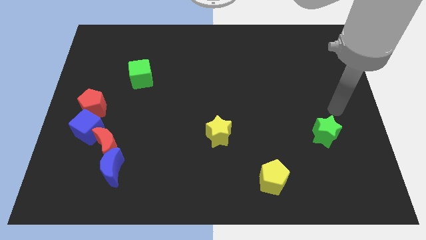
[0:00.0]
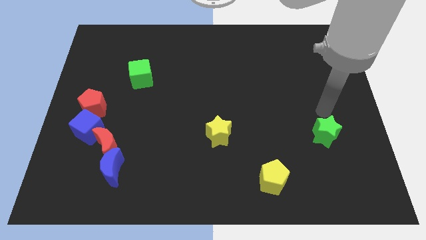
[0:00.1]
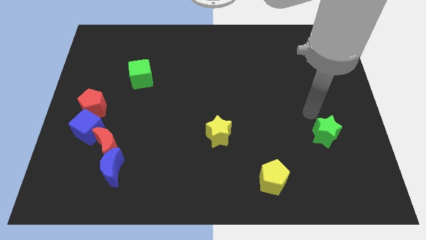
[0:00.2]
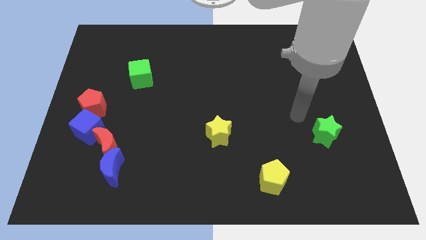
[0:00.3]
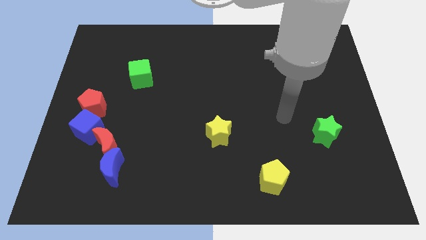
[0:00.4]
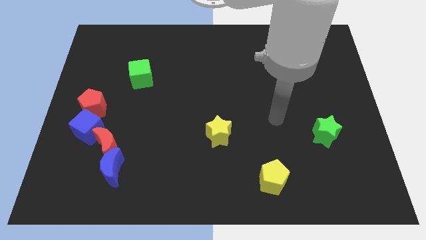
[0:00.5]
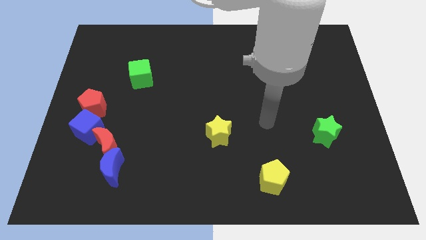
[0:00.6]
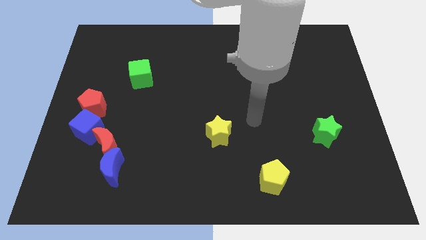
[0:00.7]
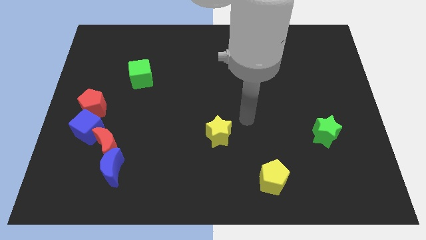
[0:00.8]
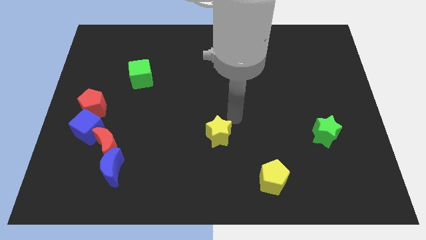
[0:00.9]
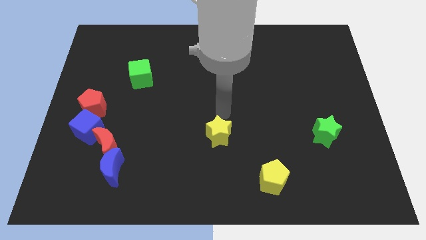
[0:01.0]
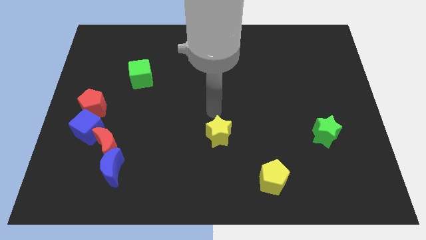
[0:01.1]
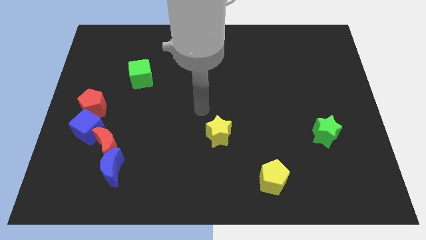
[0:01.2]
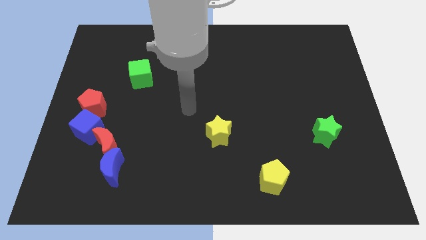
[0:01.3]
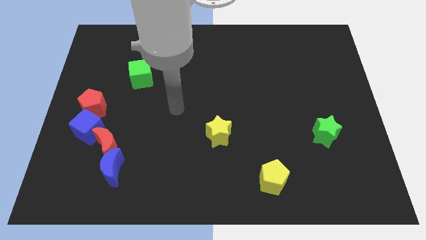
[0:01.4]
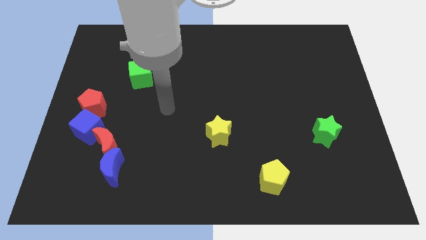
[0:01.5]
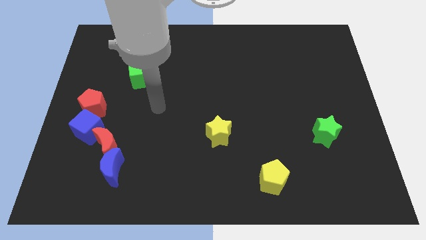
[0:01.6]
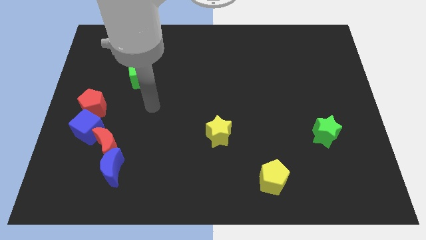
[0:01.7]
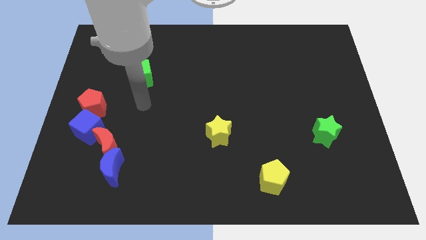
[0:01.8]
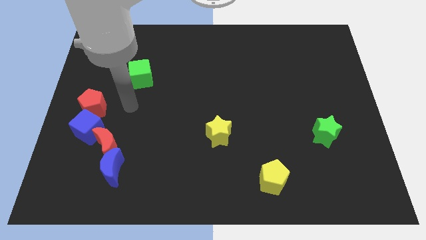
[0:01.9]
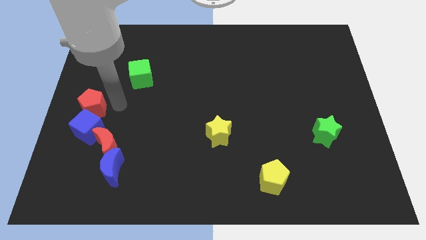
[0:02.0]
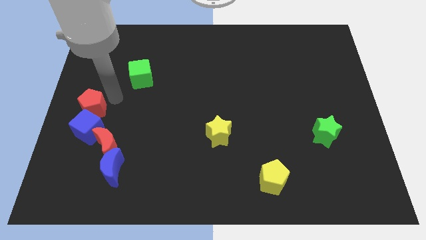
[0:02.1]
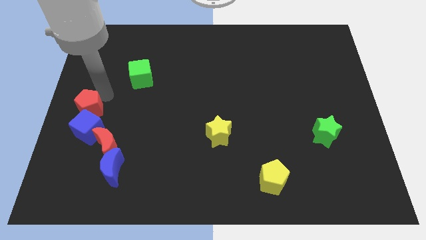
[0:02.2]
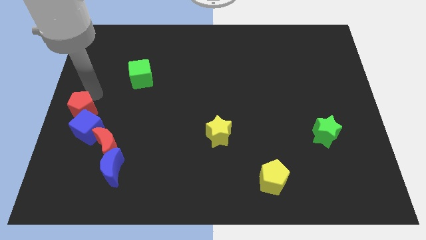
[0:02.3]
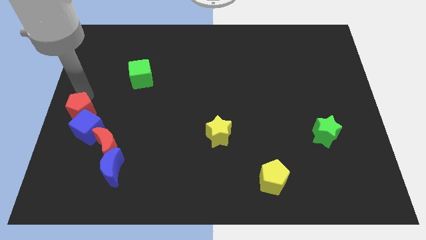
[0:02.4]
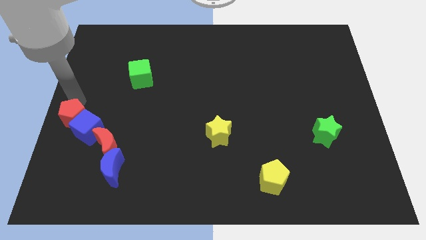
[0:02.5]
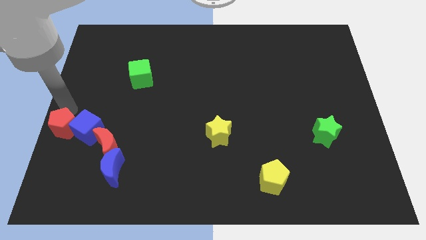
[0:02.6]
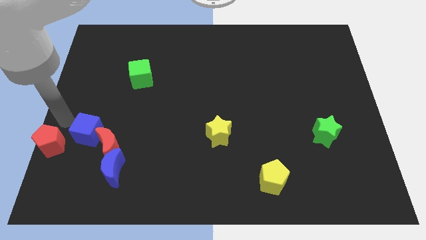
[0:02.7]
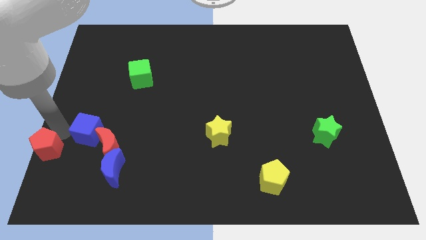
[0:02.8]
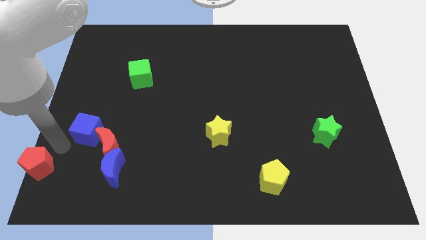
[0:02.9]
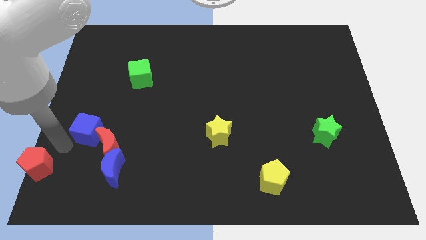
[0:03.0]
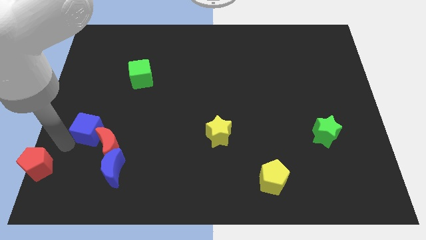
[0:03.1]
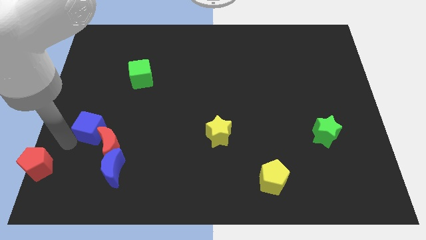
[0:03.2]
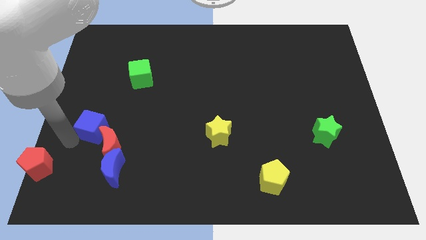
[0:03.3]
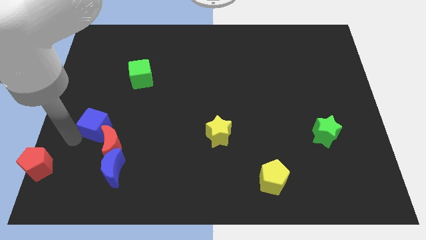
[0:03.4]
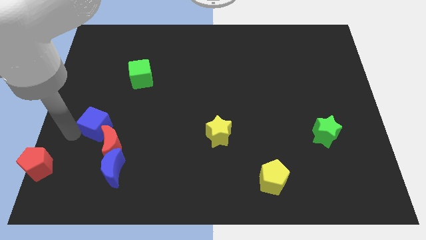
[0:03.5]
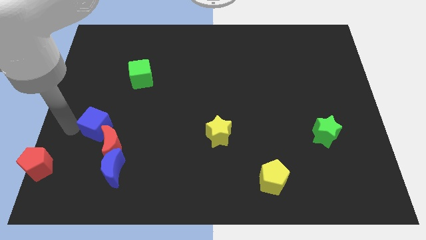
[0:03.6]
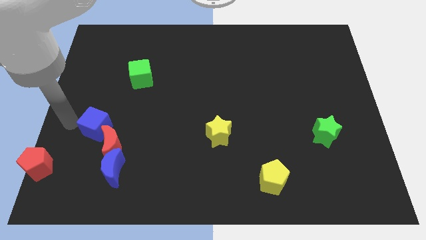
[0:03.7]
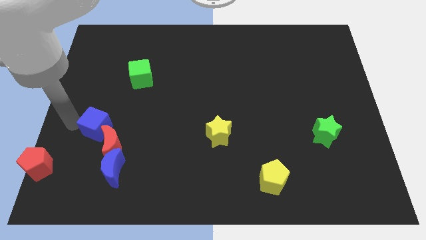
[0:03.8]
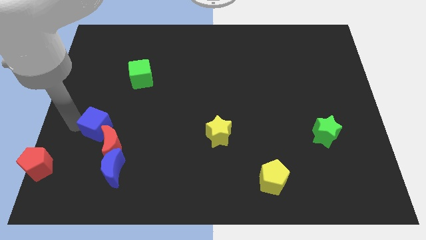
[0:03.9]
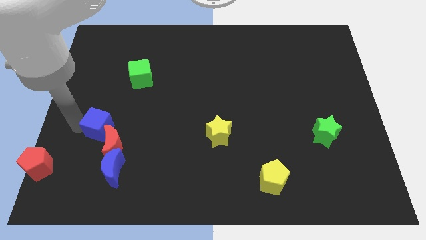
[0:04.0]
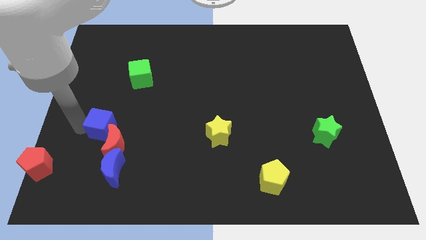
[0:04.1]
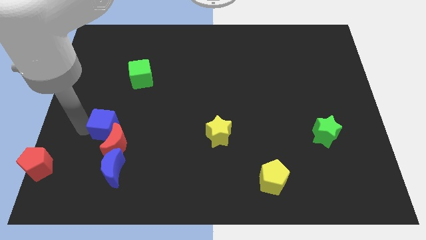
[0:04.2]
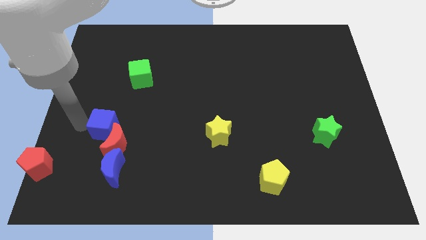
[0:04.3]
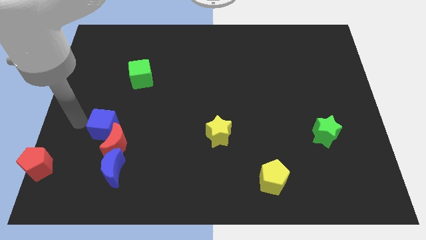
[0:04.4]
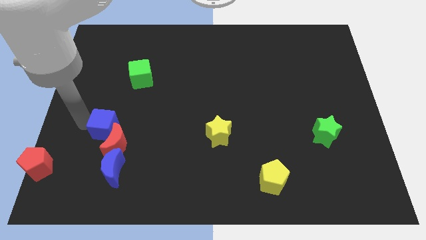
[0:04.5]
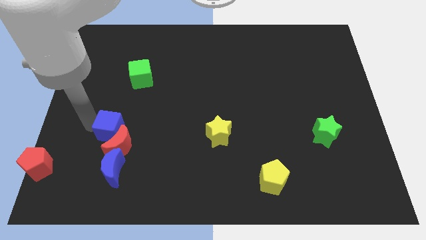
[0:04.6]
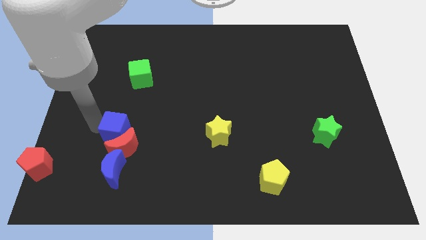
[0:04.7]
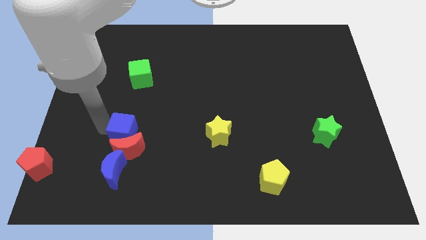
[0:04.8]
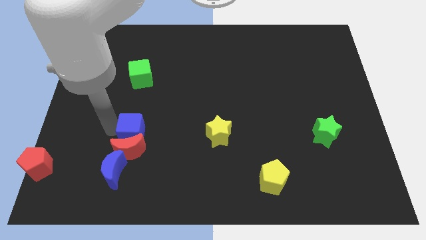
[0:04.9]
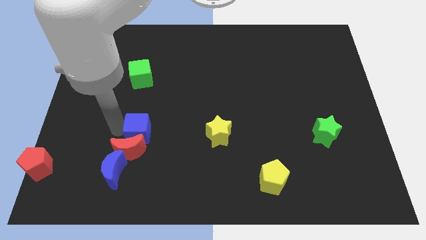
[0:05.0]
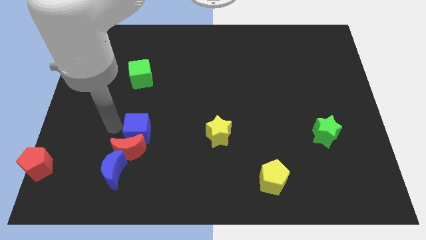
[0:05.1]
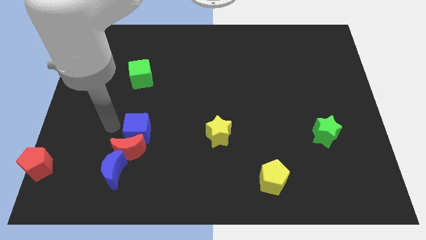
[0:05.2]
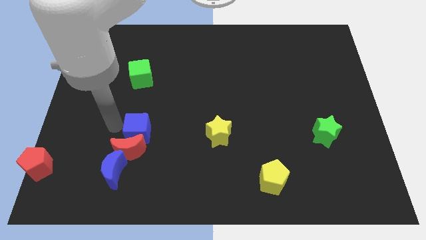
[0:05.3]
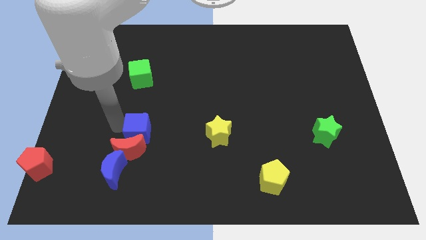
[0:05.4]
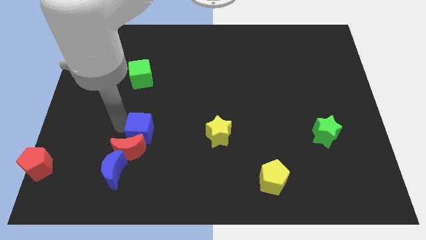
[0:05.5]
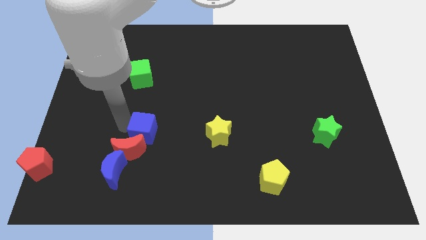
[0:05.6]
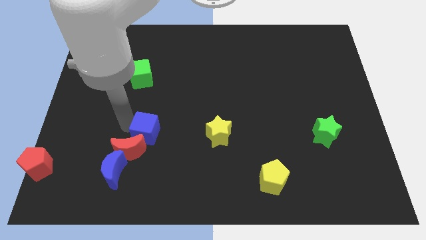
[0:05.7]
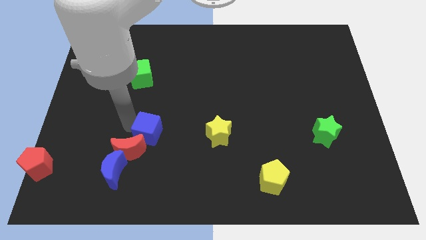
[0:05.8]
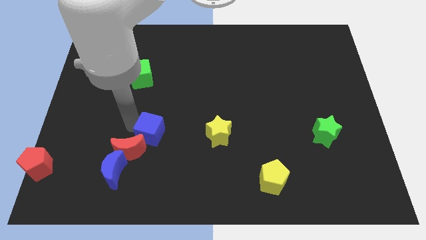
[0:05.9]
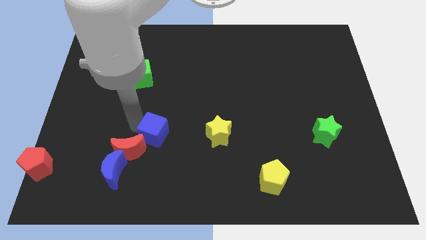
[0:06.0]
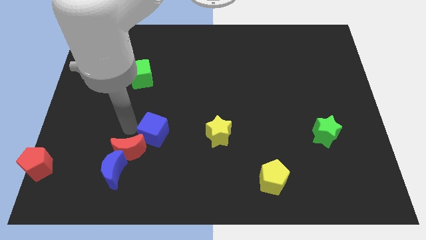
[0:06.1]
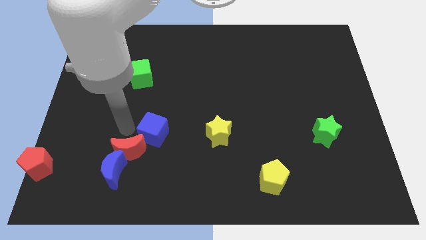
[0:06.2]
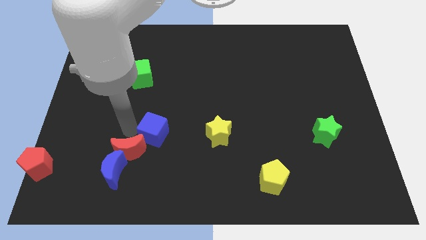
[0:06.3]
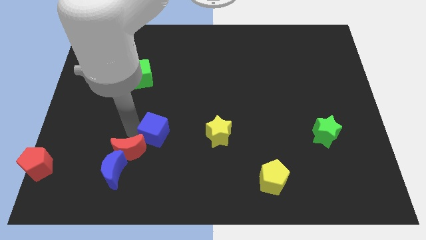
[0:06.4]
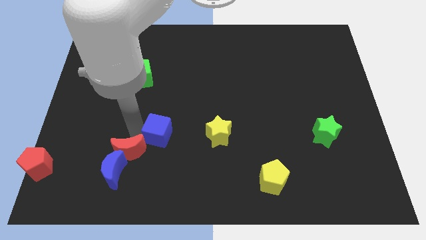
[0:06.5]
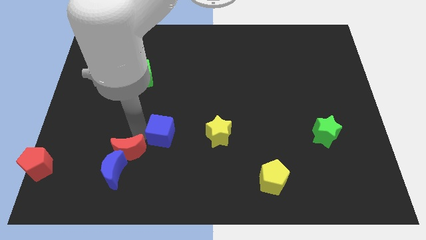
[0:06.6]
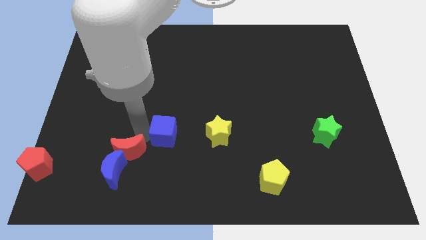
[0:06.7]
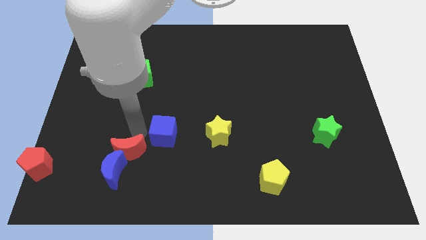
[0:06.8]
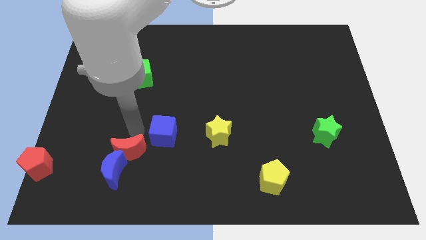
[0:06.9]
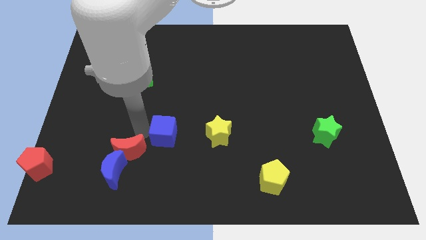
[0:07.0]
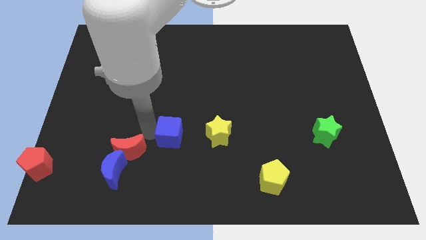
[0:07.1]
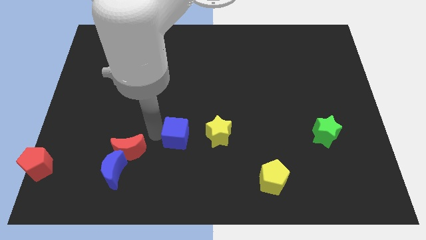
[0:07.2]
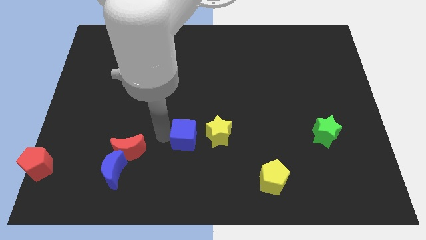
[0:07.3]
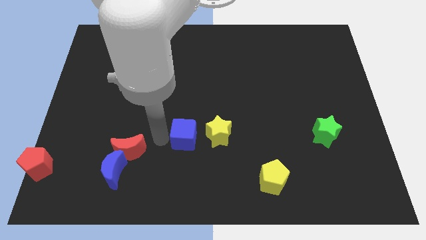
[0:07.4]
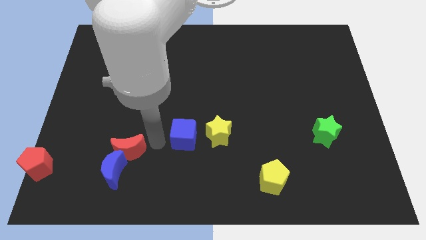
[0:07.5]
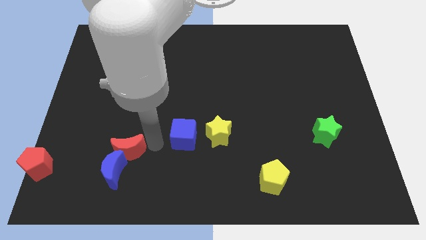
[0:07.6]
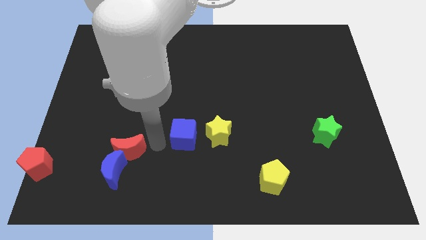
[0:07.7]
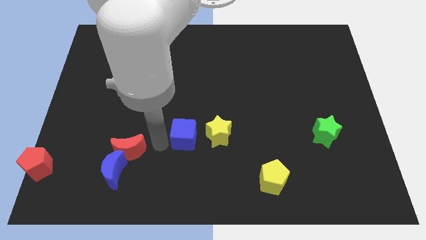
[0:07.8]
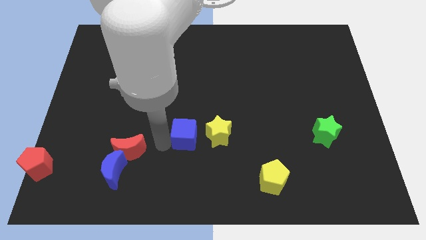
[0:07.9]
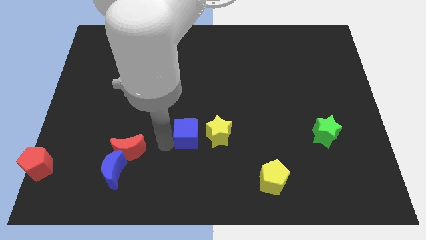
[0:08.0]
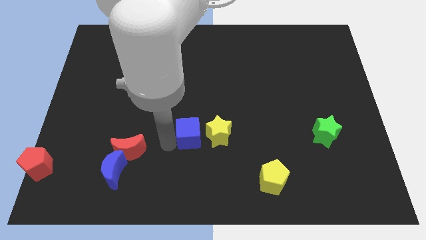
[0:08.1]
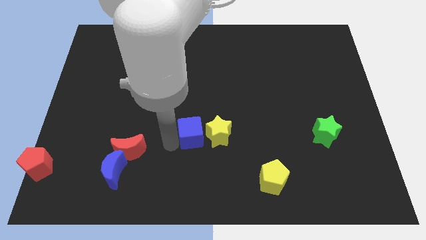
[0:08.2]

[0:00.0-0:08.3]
move the blue cube close to the yellow star

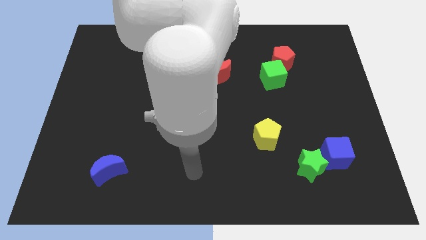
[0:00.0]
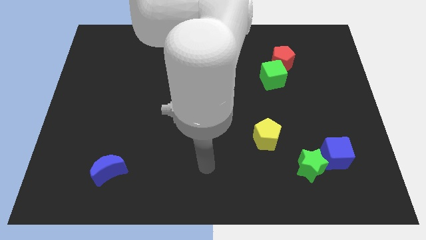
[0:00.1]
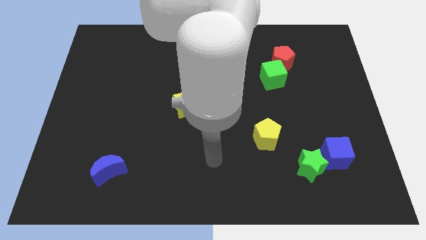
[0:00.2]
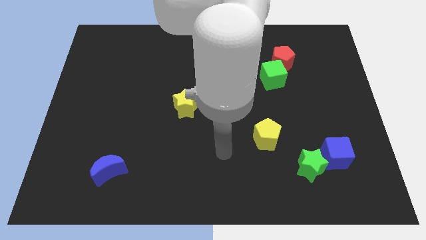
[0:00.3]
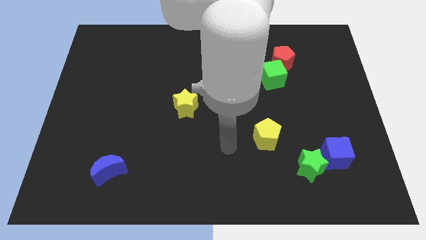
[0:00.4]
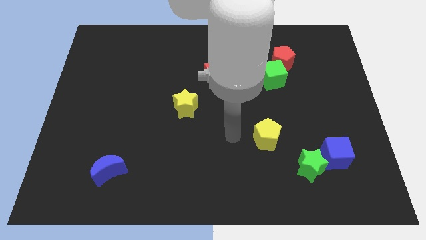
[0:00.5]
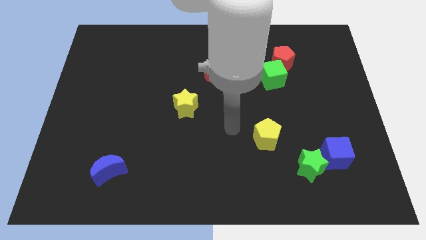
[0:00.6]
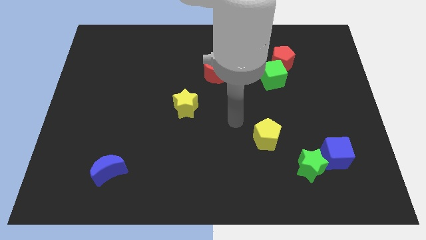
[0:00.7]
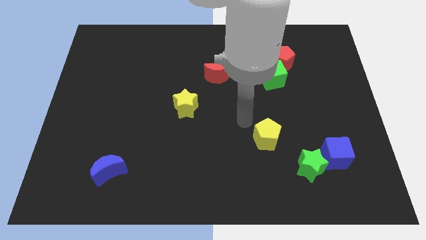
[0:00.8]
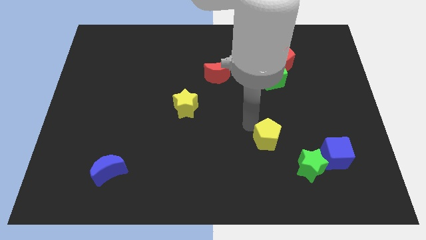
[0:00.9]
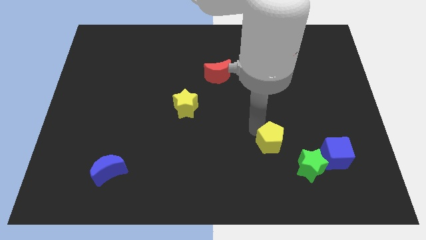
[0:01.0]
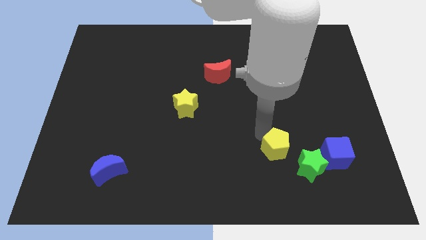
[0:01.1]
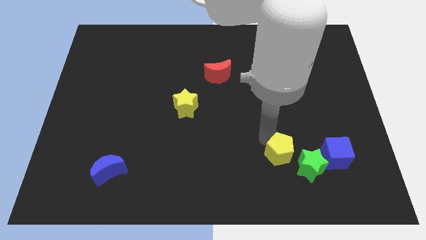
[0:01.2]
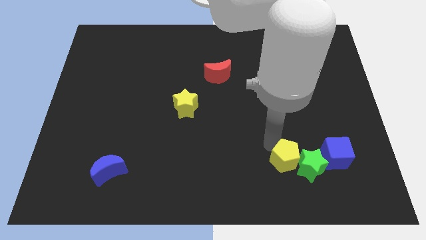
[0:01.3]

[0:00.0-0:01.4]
put the yellow pentagon close to the green star
